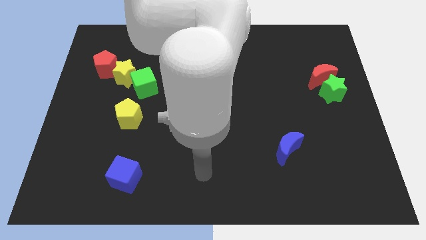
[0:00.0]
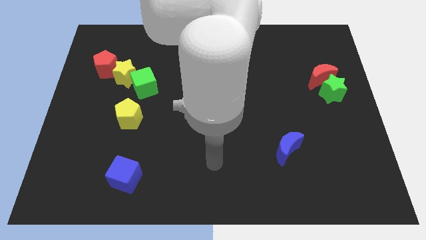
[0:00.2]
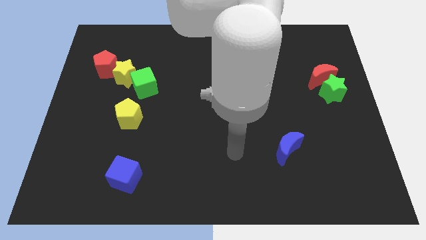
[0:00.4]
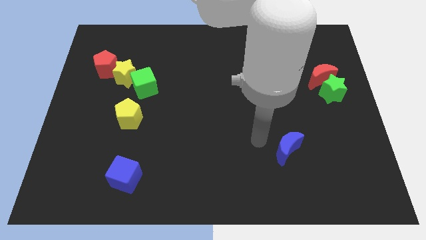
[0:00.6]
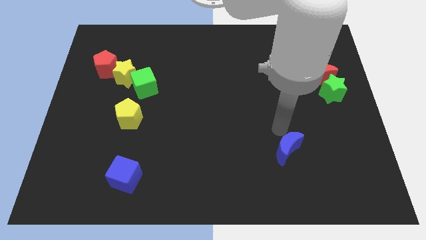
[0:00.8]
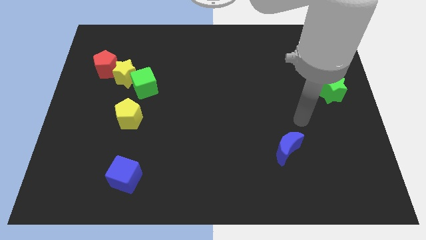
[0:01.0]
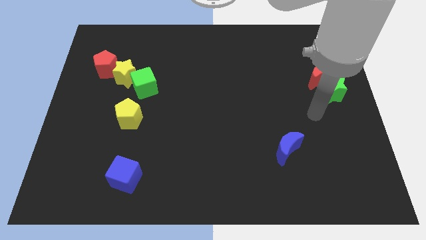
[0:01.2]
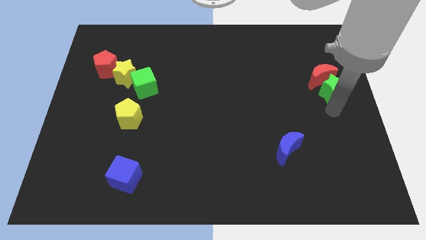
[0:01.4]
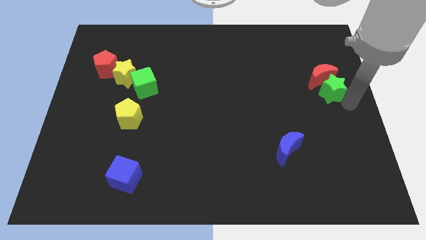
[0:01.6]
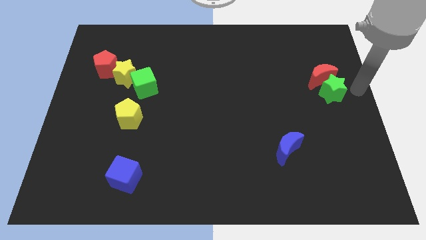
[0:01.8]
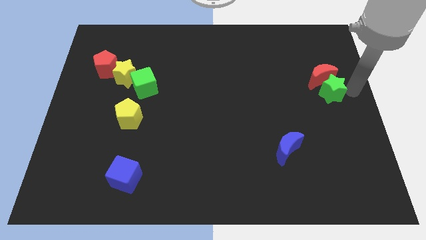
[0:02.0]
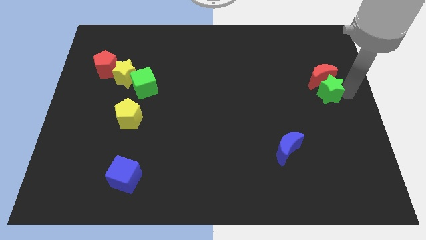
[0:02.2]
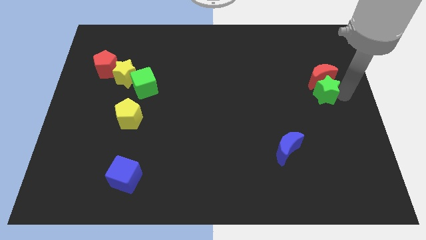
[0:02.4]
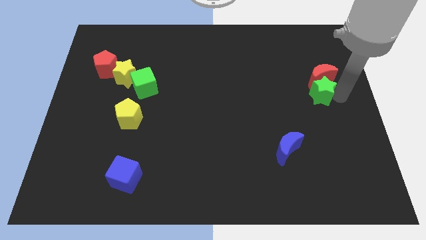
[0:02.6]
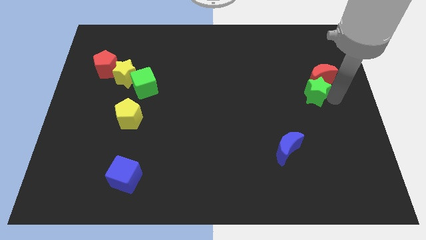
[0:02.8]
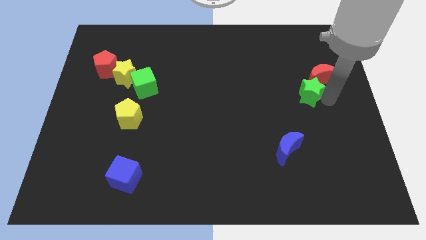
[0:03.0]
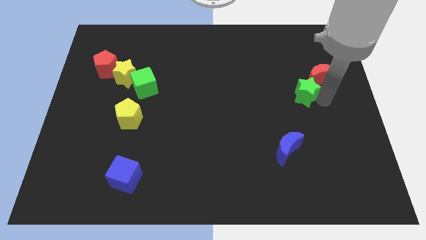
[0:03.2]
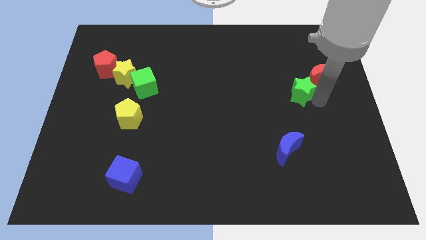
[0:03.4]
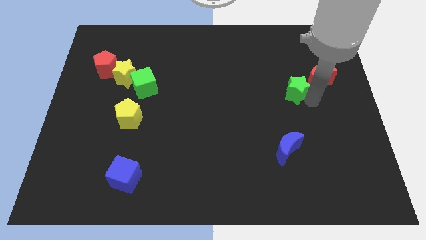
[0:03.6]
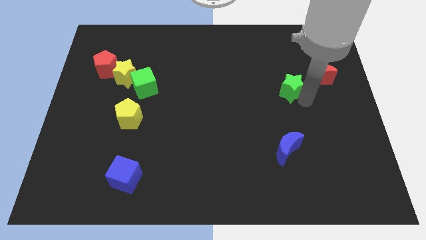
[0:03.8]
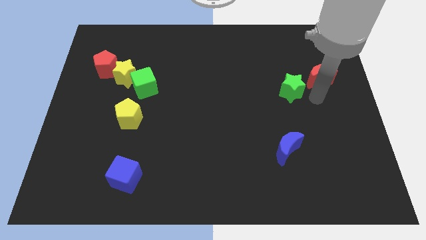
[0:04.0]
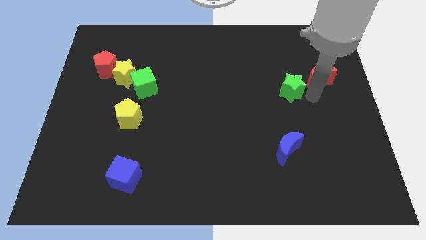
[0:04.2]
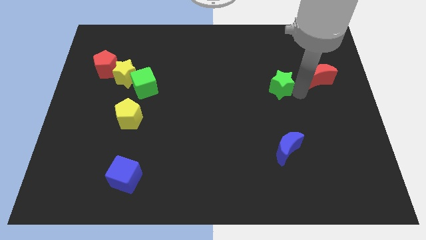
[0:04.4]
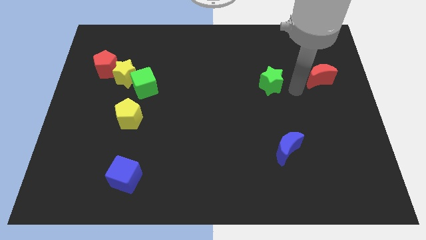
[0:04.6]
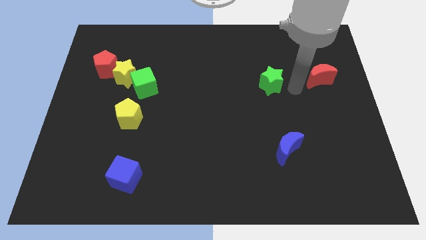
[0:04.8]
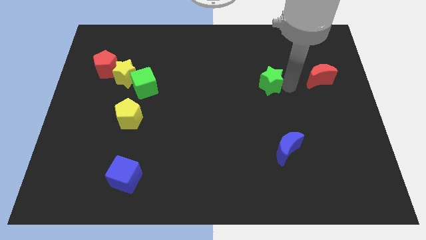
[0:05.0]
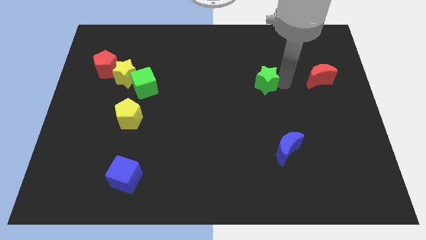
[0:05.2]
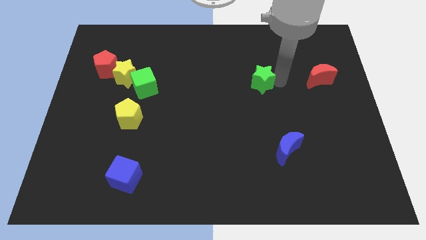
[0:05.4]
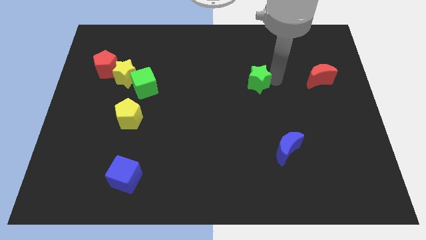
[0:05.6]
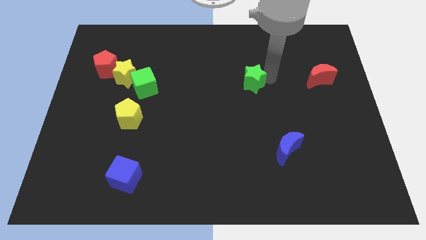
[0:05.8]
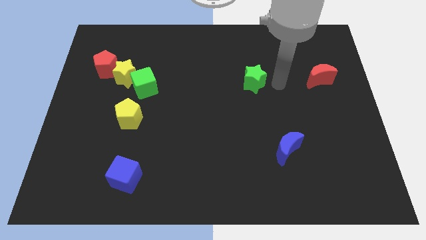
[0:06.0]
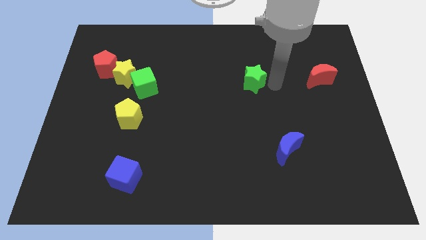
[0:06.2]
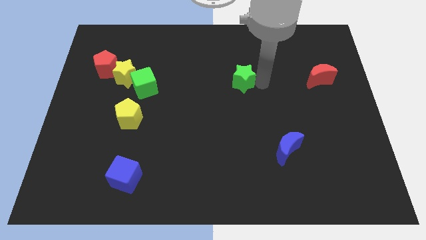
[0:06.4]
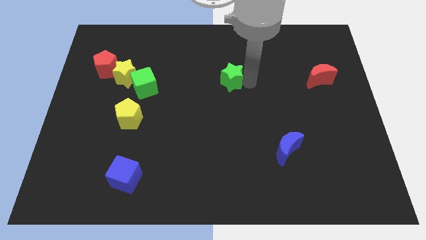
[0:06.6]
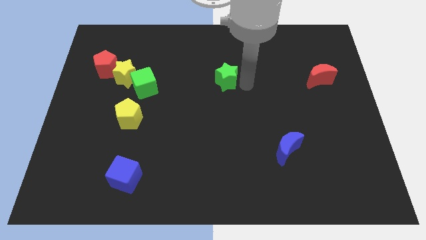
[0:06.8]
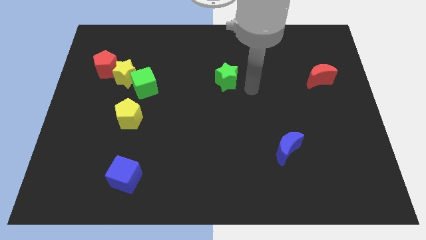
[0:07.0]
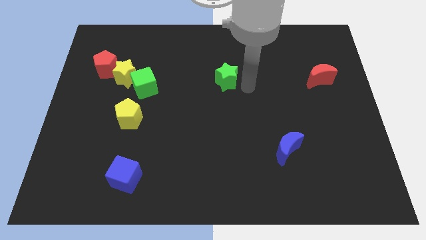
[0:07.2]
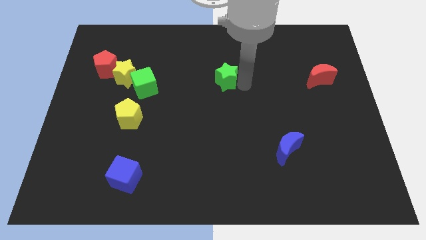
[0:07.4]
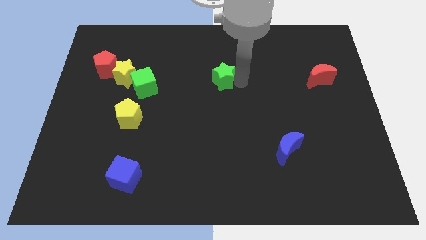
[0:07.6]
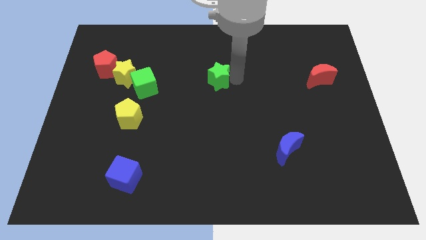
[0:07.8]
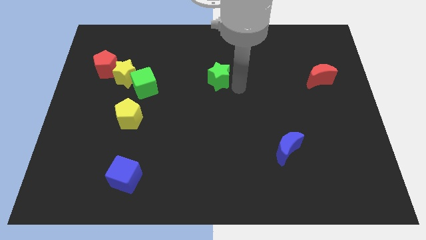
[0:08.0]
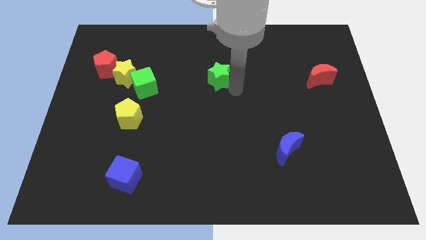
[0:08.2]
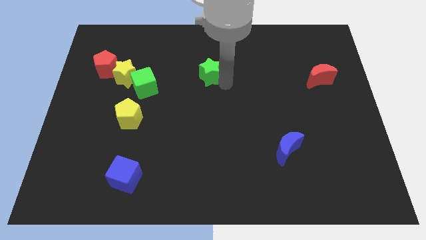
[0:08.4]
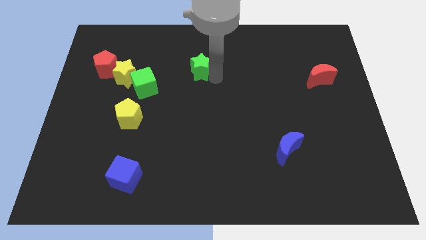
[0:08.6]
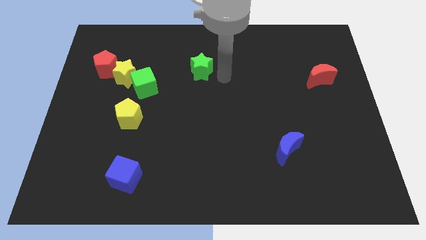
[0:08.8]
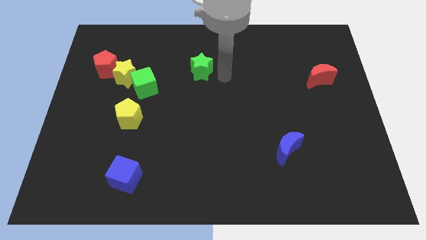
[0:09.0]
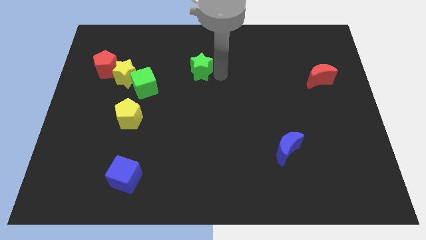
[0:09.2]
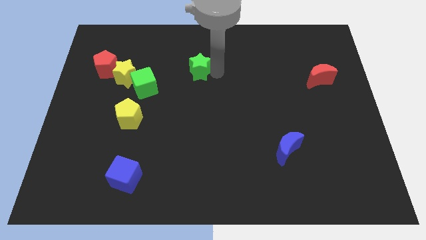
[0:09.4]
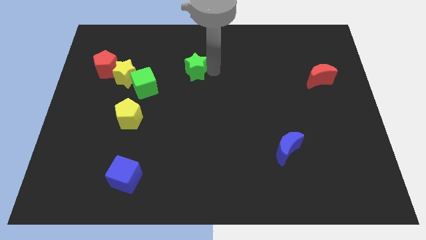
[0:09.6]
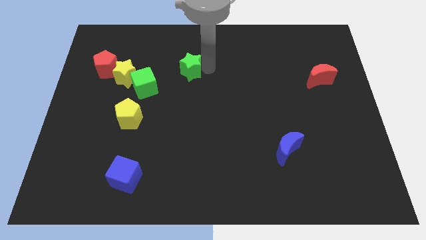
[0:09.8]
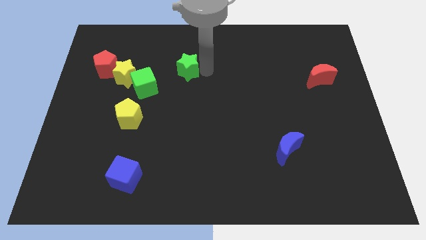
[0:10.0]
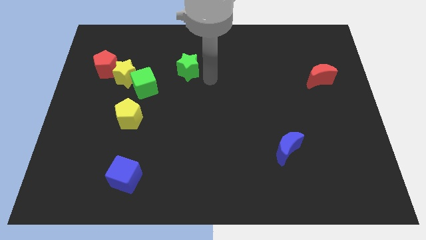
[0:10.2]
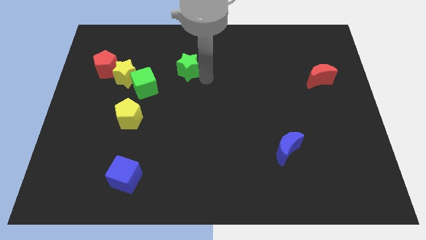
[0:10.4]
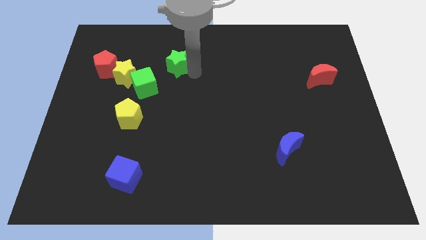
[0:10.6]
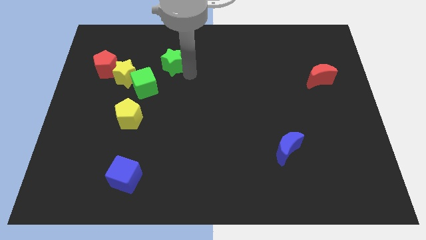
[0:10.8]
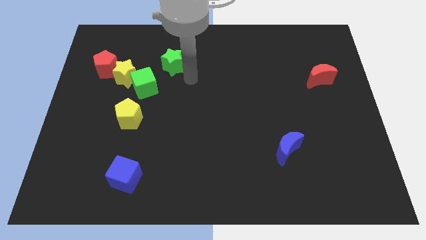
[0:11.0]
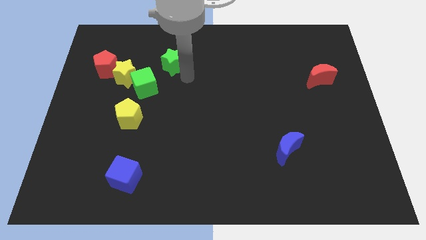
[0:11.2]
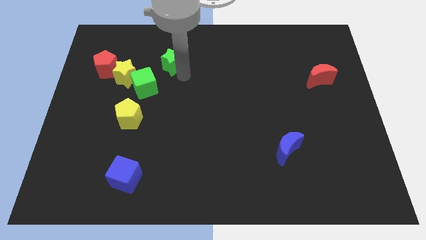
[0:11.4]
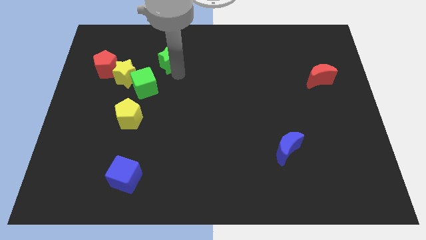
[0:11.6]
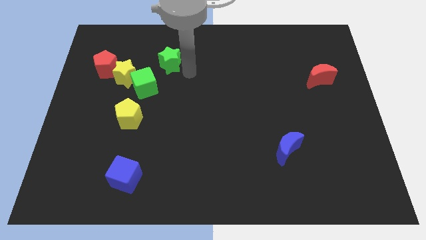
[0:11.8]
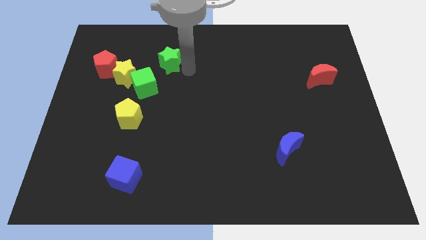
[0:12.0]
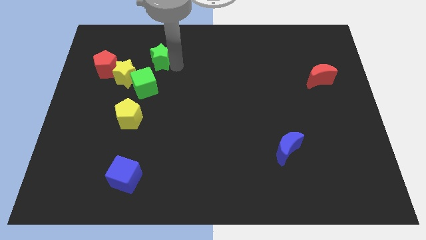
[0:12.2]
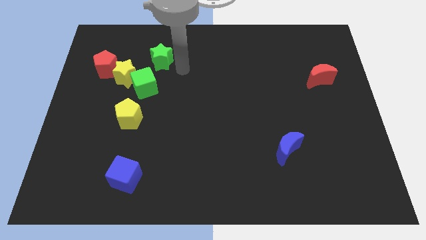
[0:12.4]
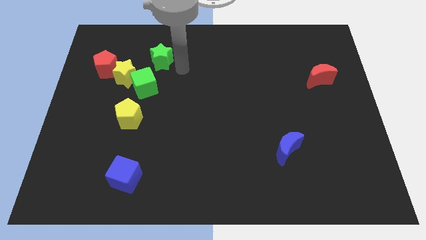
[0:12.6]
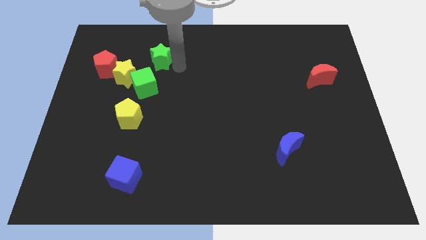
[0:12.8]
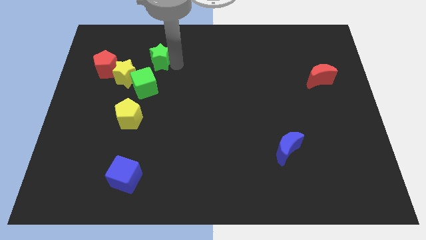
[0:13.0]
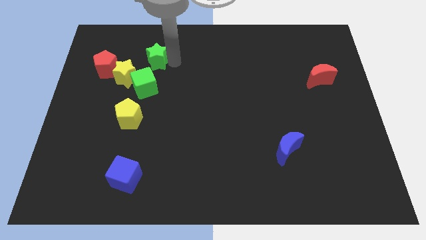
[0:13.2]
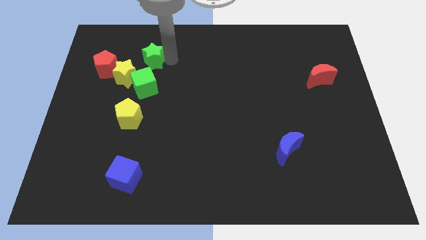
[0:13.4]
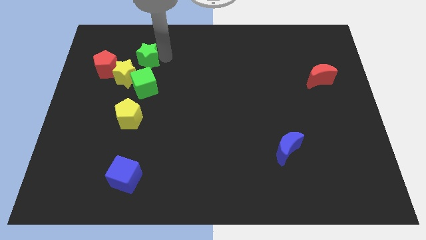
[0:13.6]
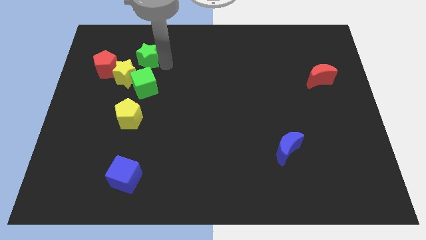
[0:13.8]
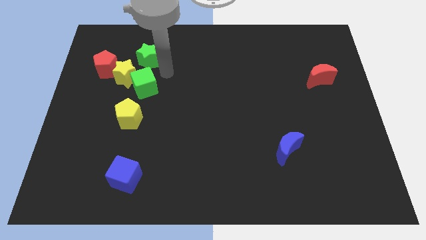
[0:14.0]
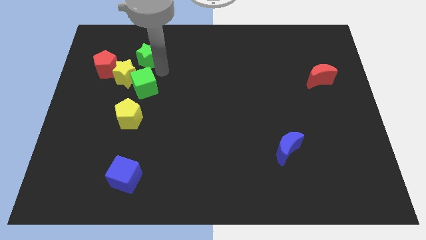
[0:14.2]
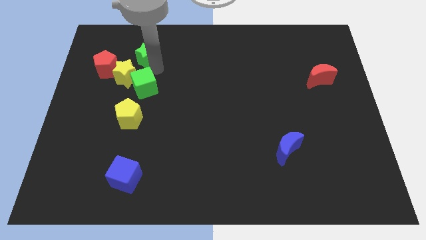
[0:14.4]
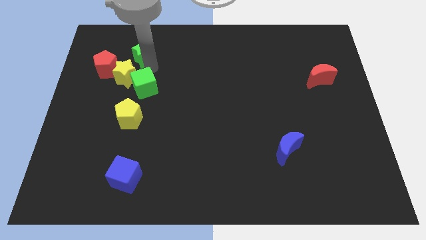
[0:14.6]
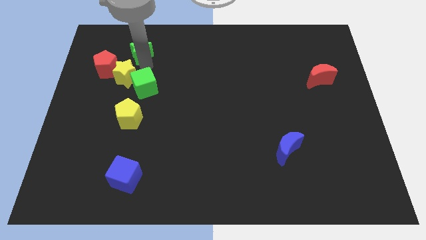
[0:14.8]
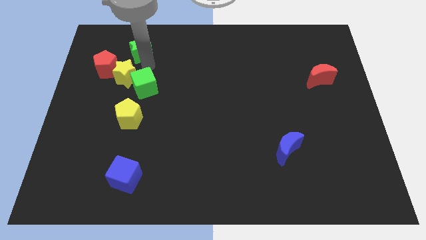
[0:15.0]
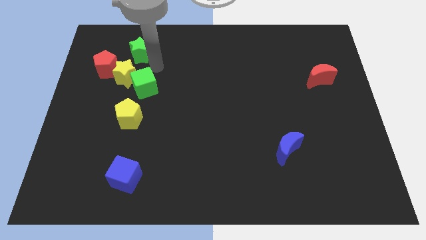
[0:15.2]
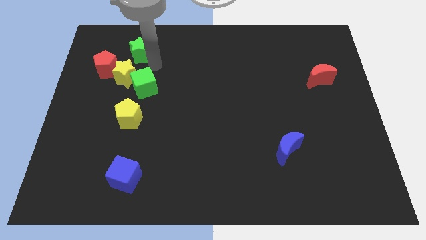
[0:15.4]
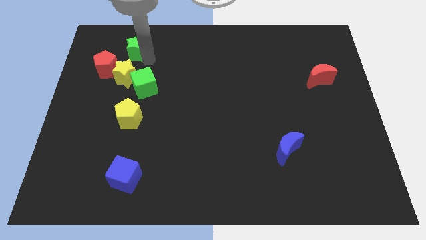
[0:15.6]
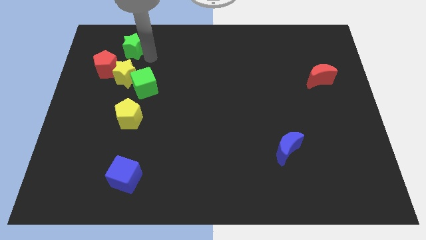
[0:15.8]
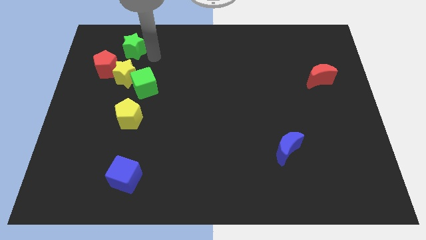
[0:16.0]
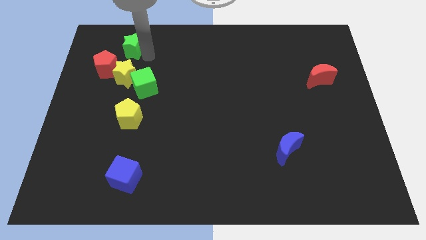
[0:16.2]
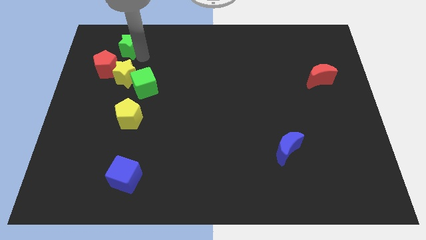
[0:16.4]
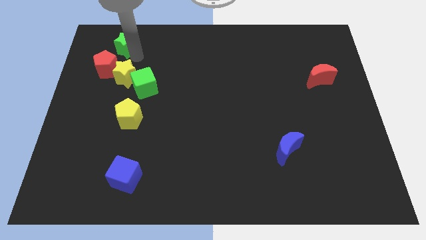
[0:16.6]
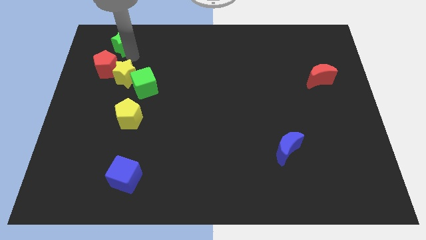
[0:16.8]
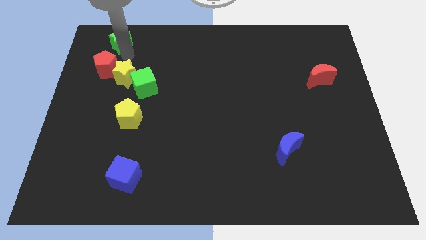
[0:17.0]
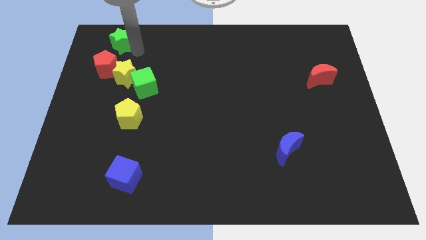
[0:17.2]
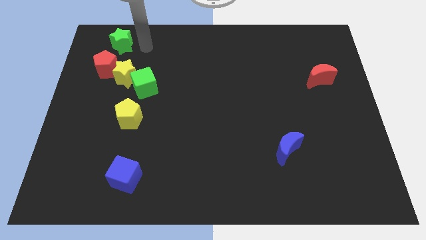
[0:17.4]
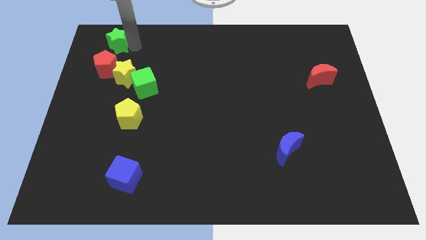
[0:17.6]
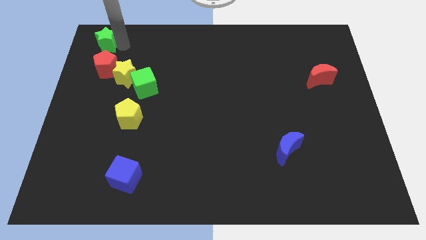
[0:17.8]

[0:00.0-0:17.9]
push the green star to the top left corner
